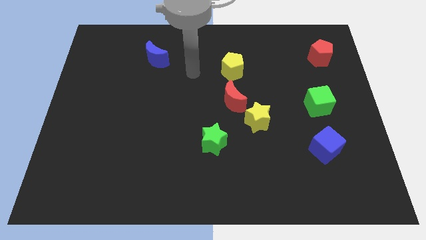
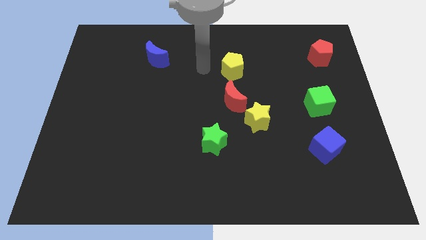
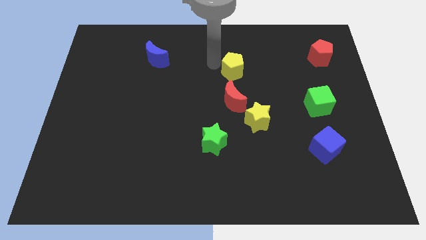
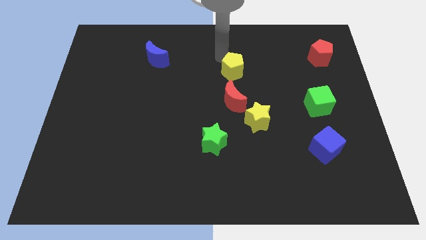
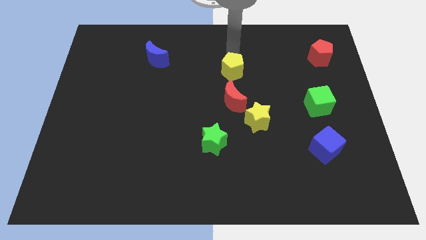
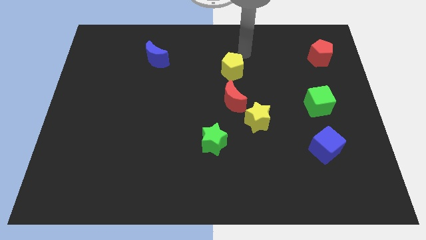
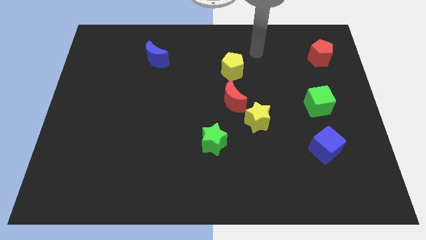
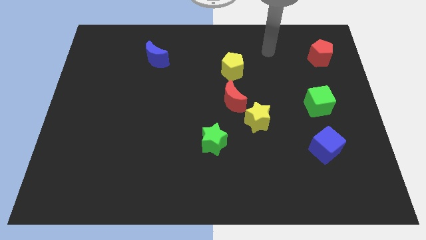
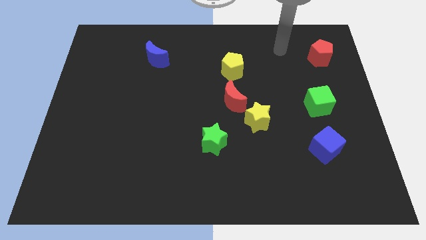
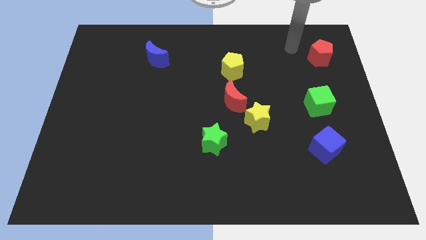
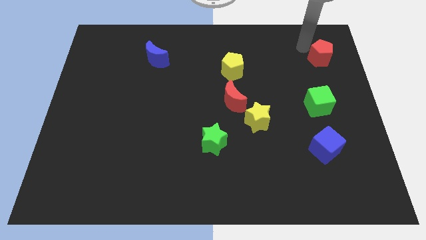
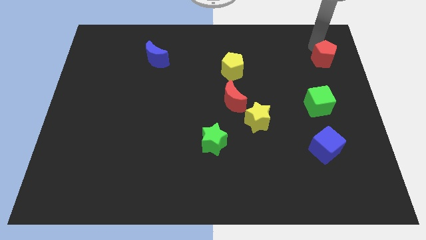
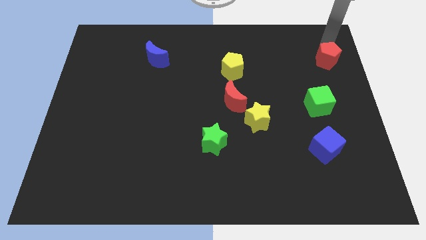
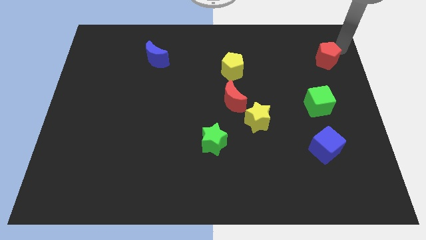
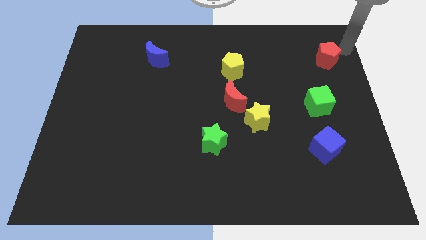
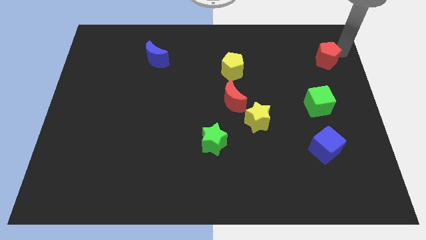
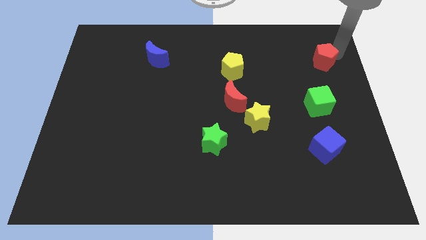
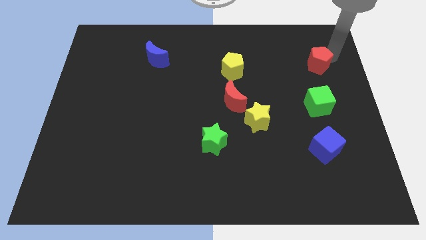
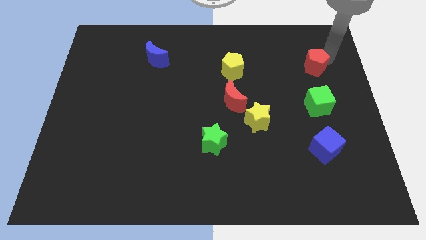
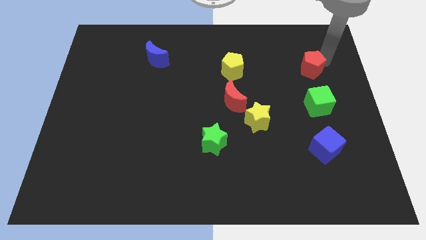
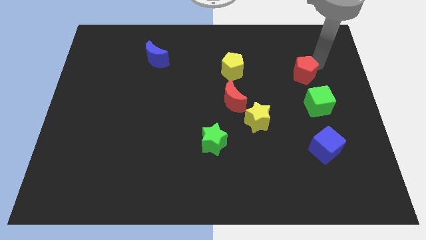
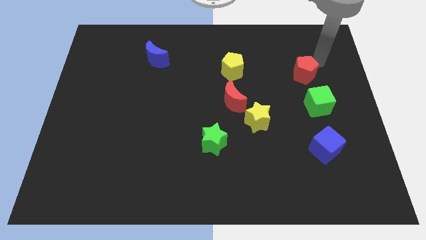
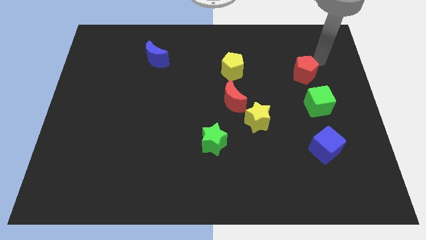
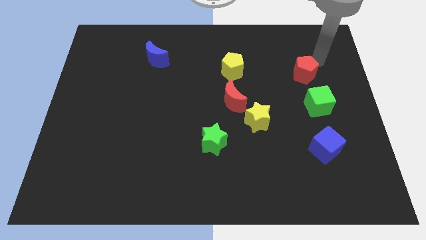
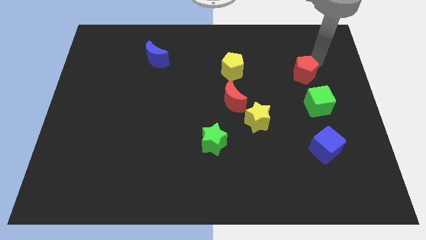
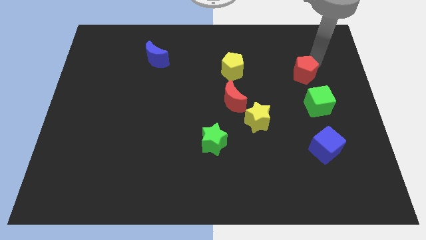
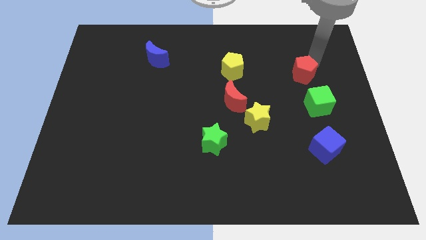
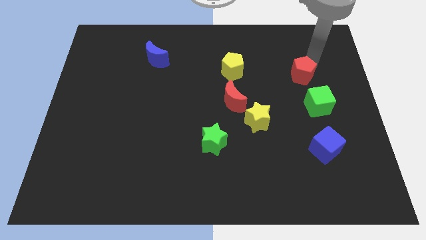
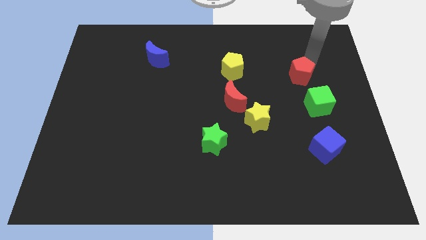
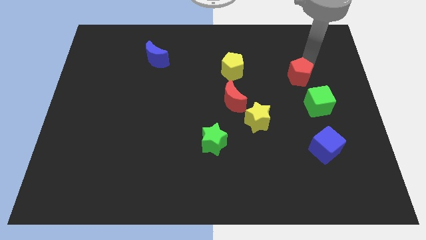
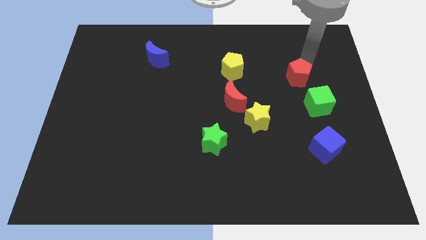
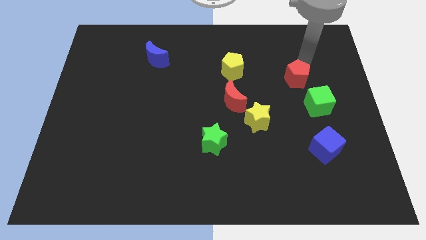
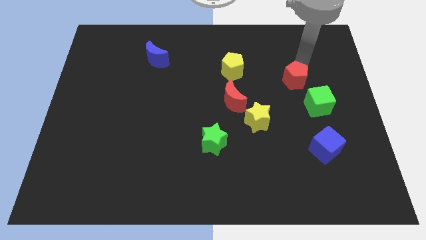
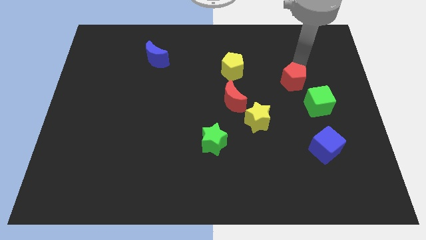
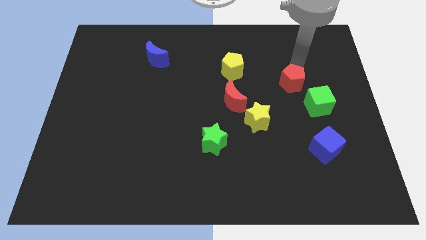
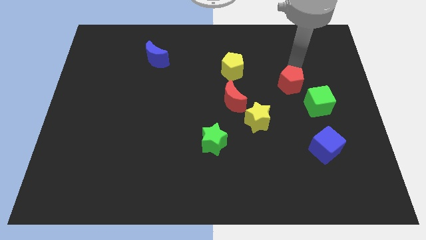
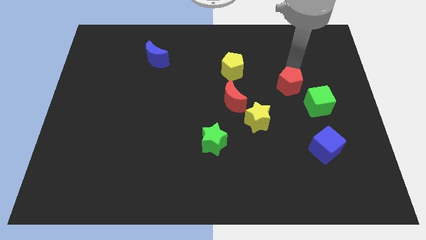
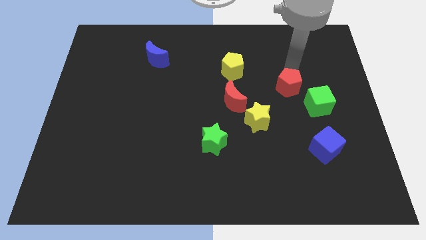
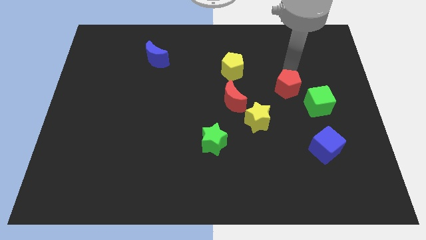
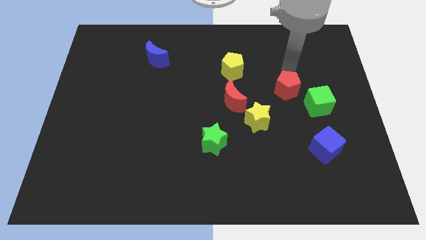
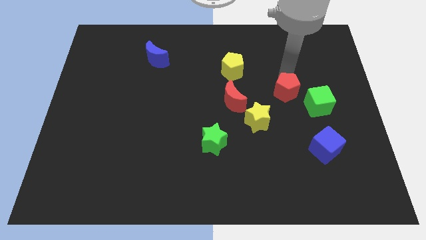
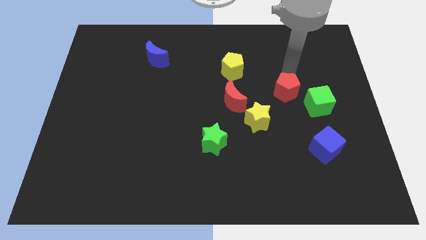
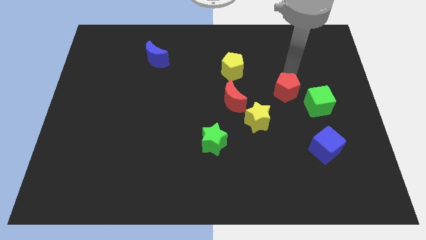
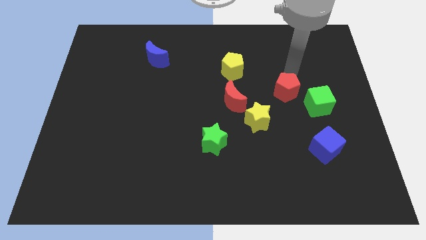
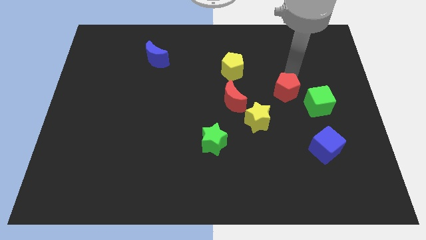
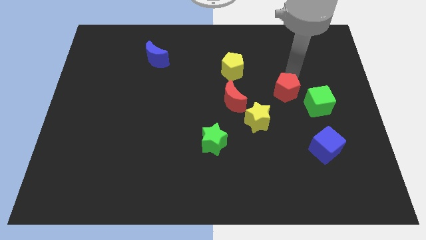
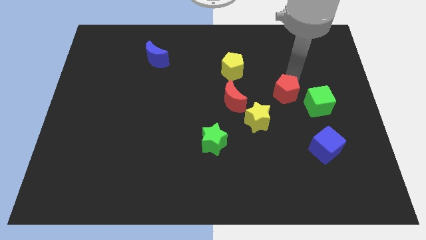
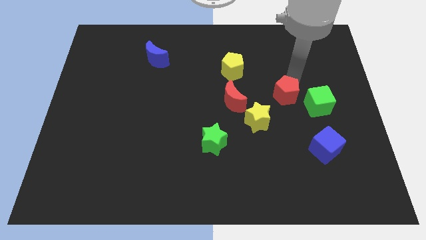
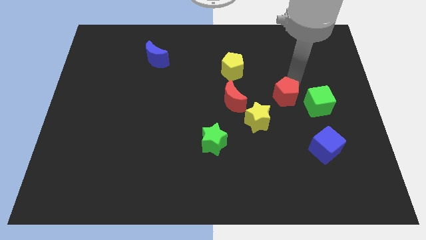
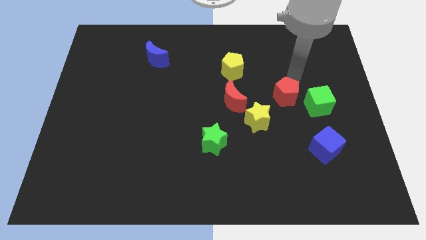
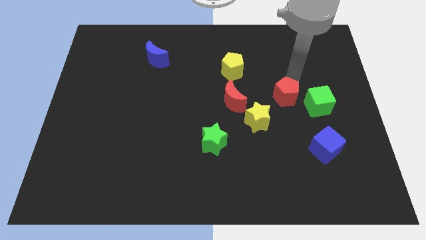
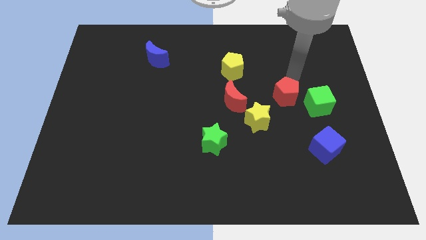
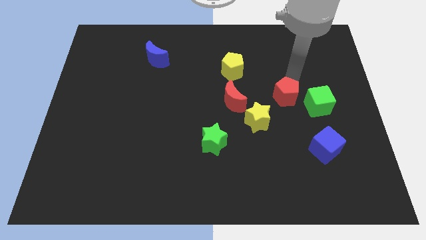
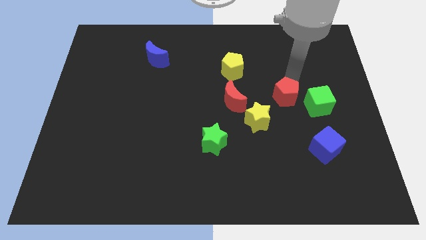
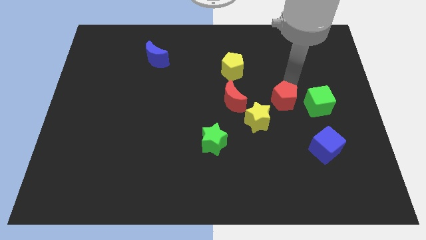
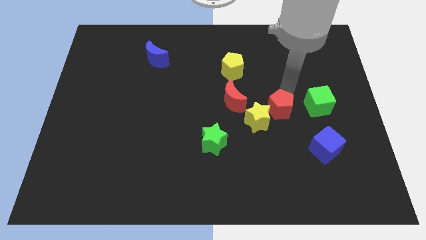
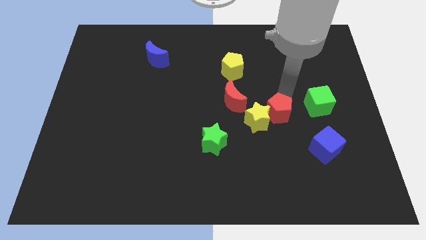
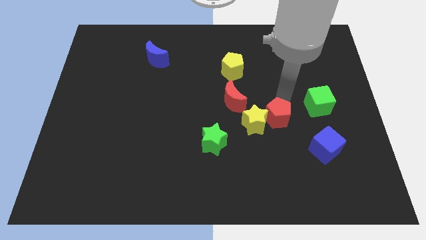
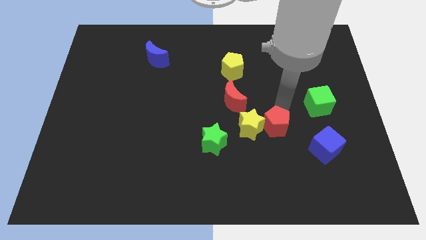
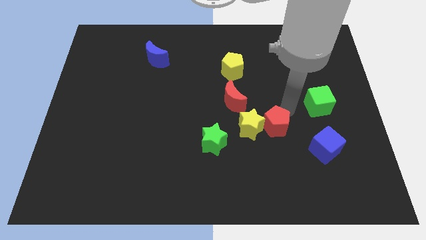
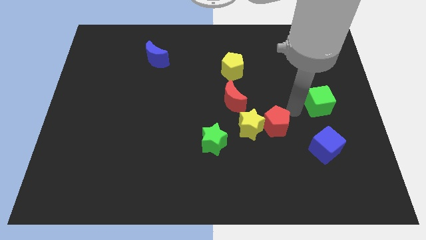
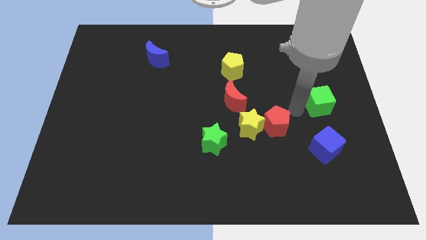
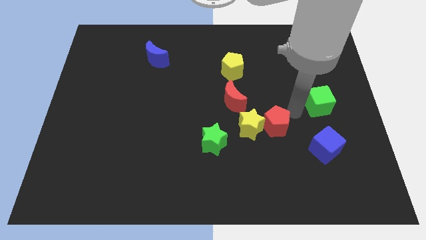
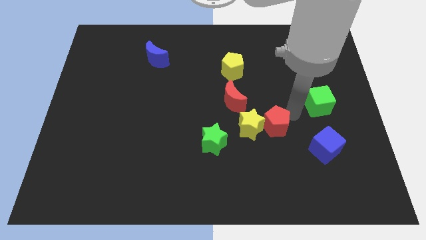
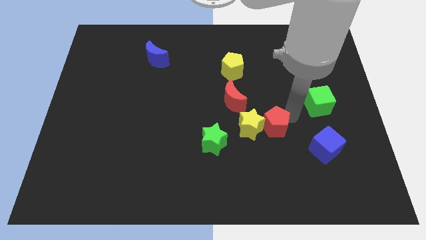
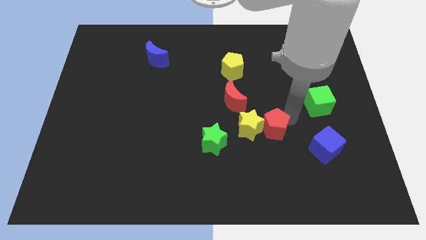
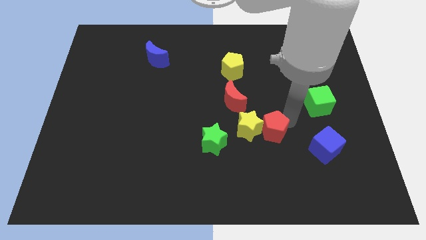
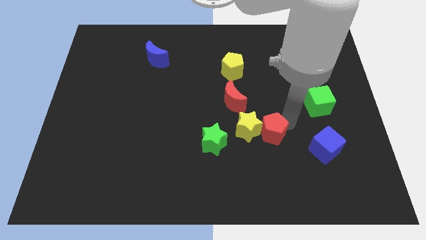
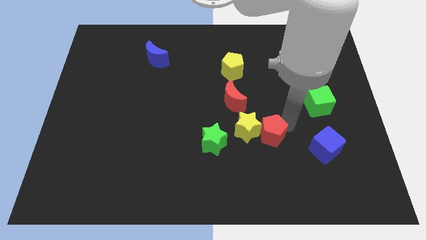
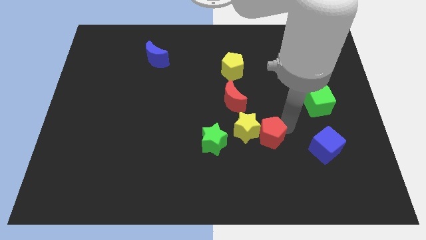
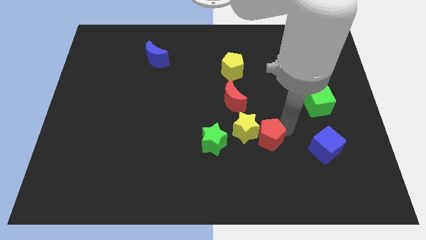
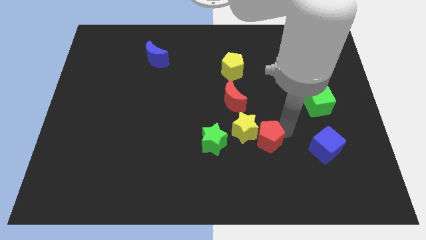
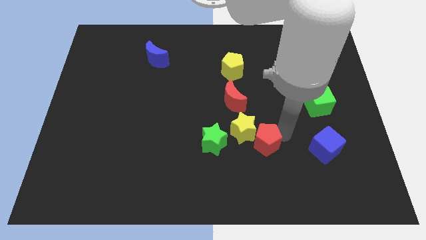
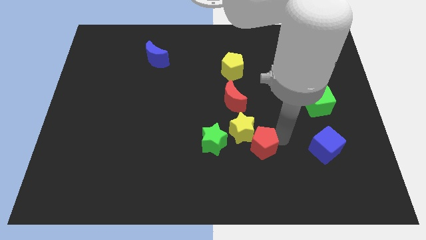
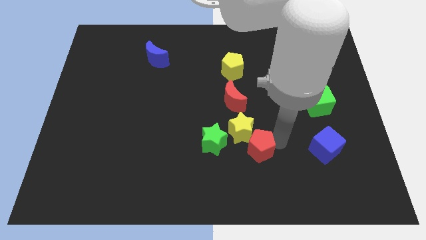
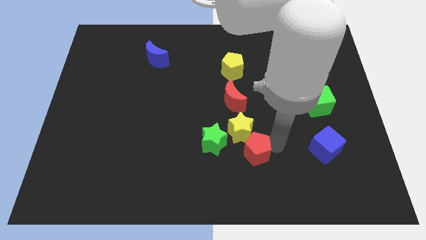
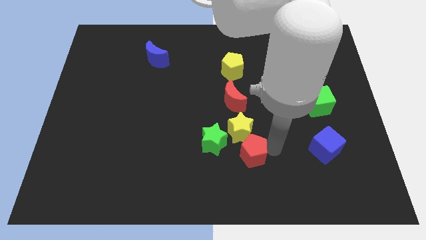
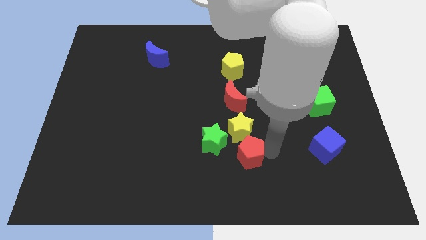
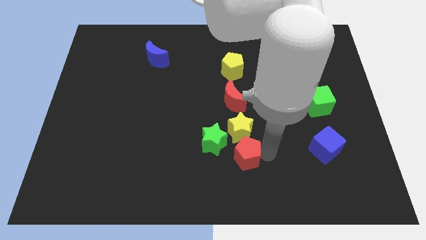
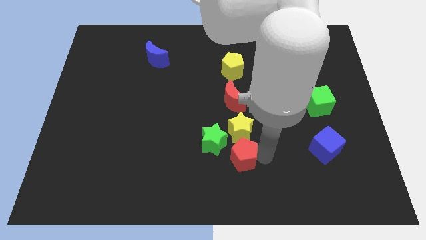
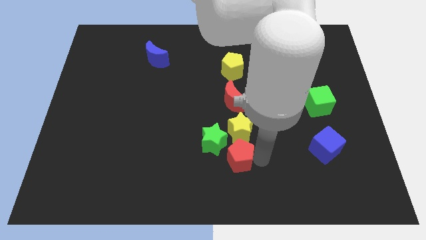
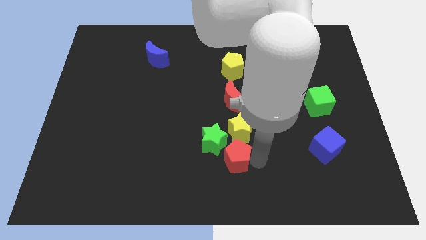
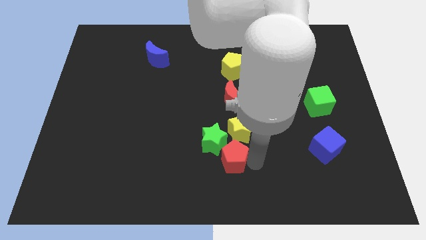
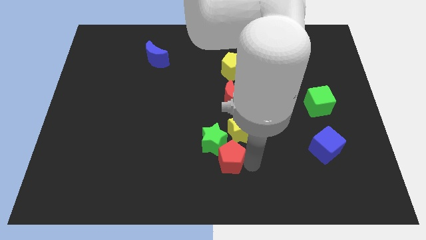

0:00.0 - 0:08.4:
put the red pentagon to the green star
